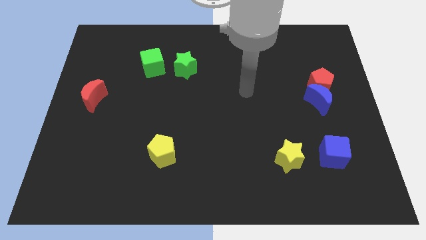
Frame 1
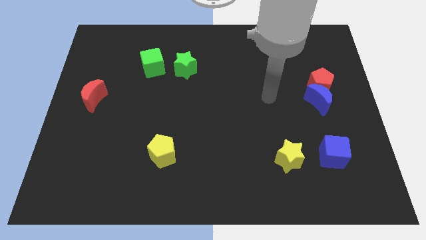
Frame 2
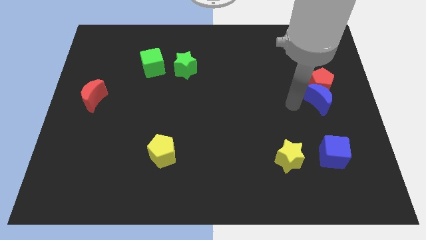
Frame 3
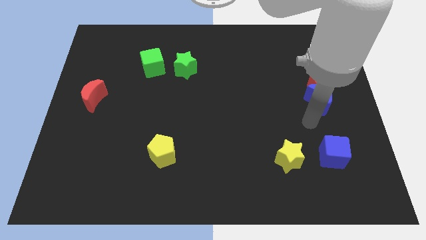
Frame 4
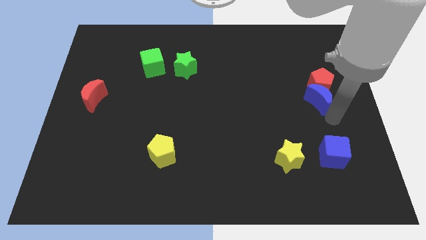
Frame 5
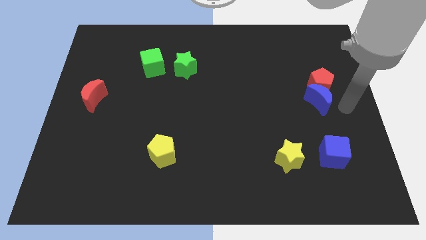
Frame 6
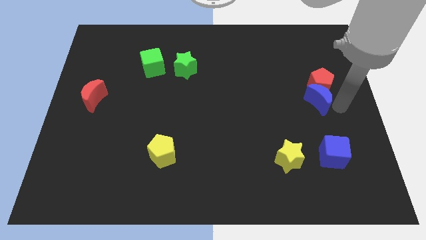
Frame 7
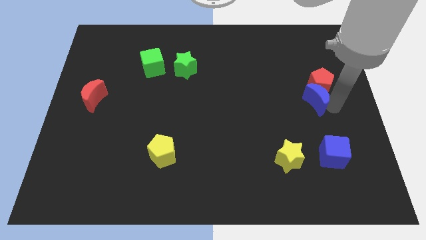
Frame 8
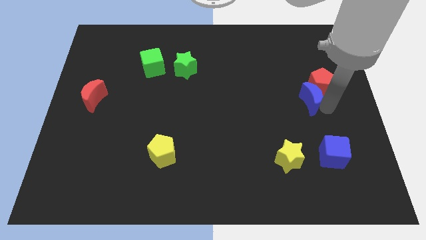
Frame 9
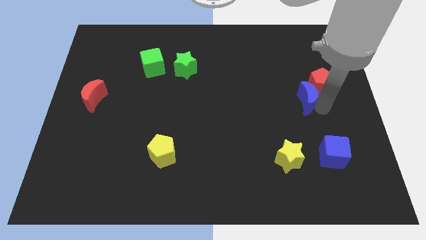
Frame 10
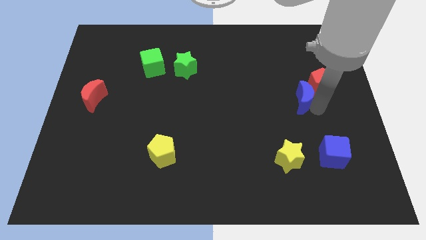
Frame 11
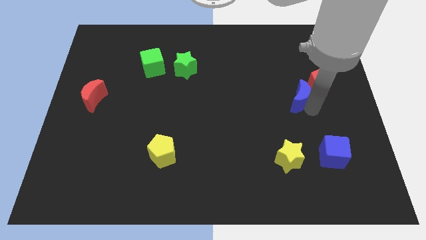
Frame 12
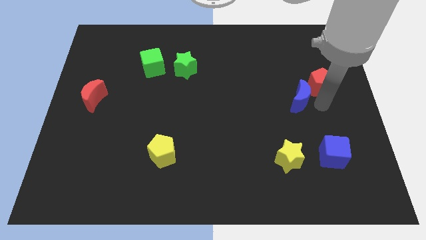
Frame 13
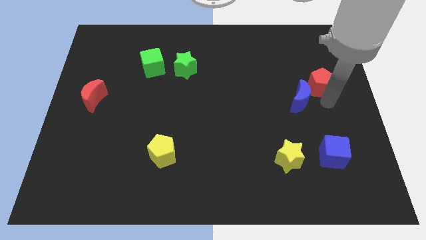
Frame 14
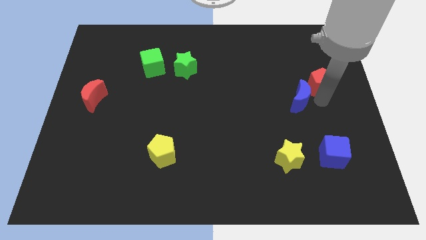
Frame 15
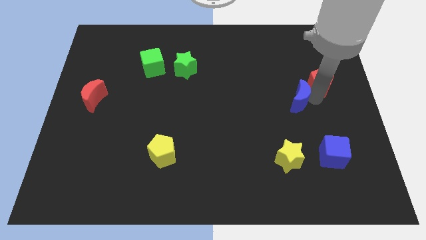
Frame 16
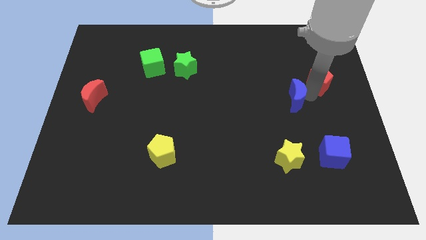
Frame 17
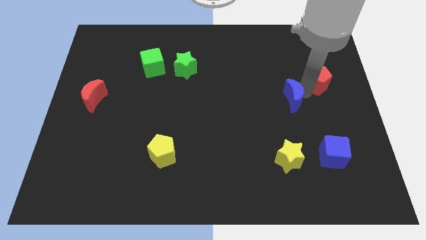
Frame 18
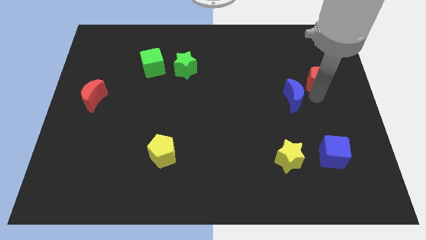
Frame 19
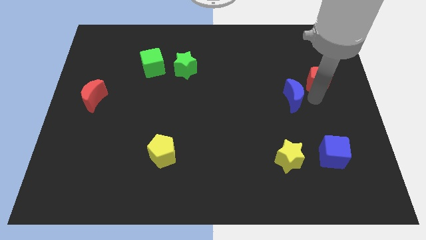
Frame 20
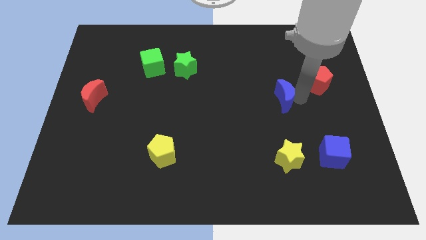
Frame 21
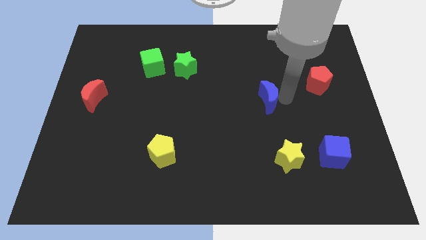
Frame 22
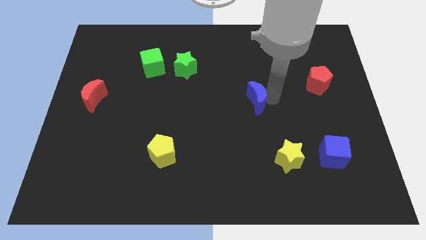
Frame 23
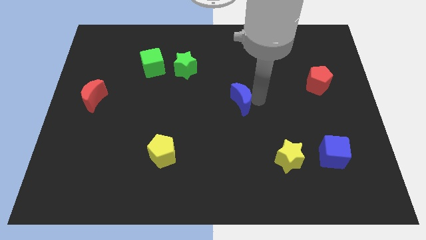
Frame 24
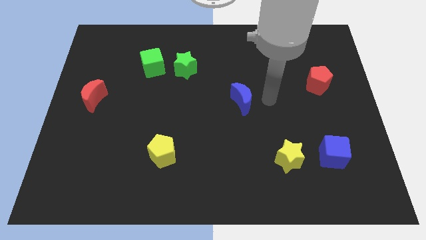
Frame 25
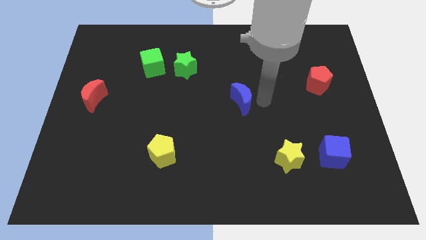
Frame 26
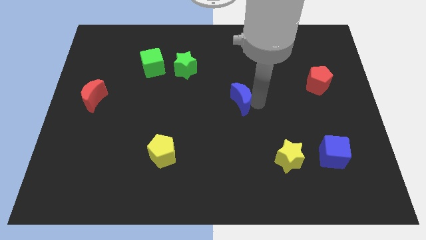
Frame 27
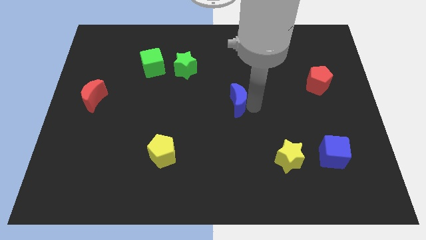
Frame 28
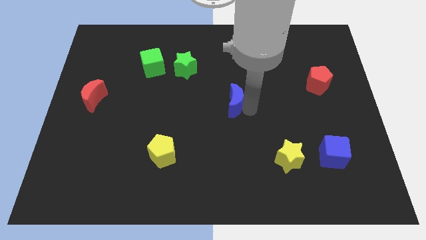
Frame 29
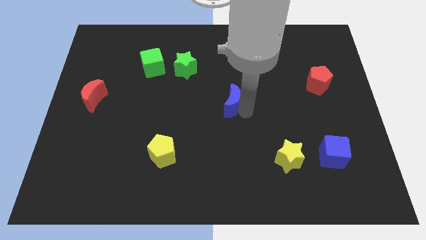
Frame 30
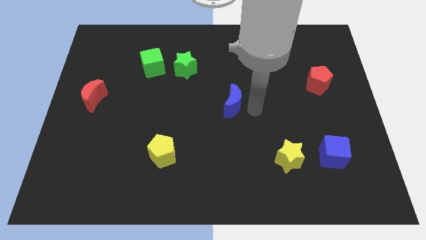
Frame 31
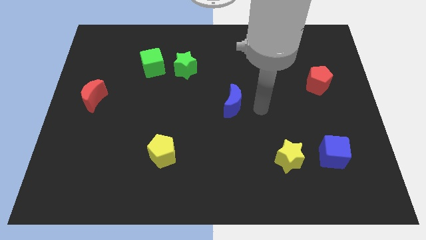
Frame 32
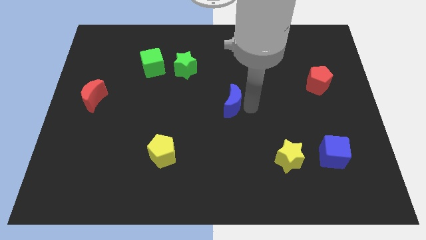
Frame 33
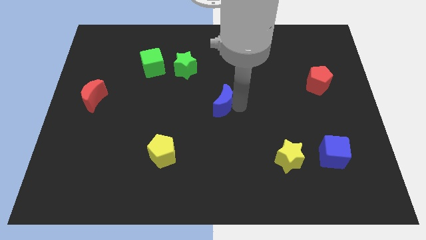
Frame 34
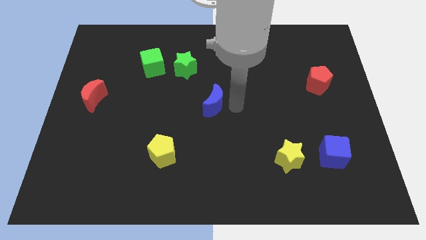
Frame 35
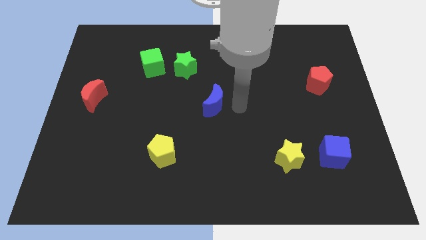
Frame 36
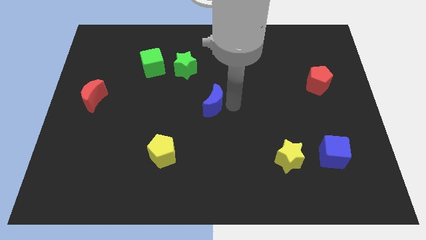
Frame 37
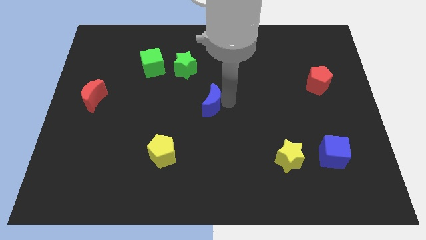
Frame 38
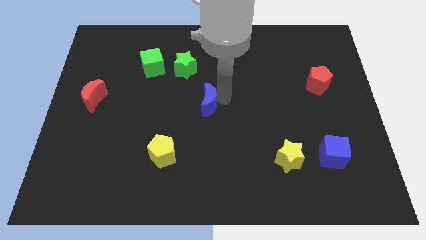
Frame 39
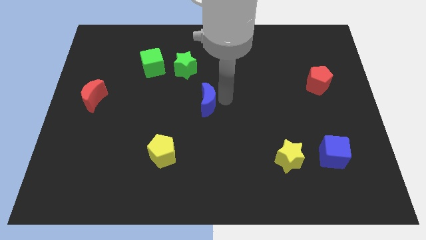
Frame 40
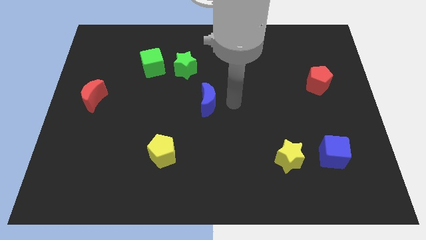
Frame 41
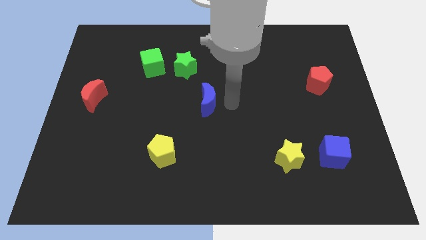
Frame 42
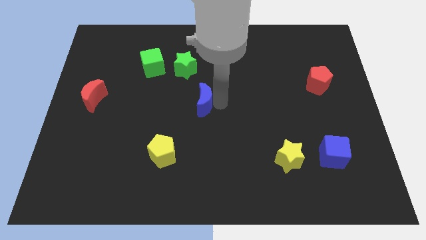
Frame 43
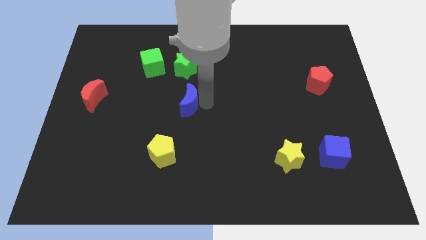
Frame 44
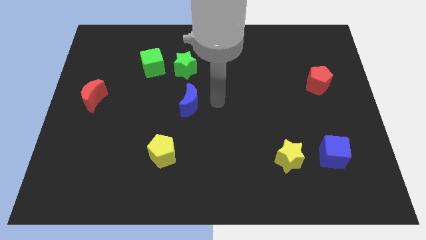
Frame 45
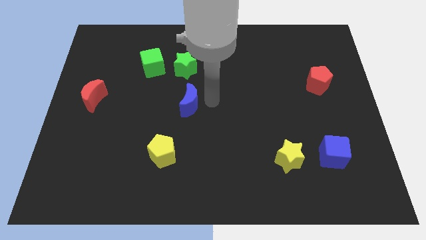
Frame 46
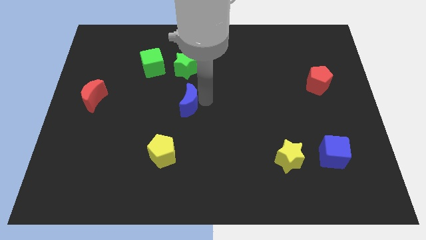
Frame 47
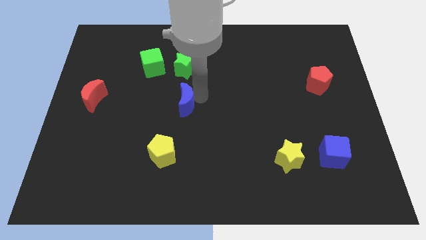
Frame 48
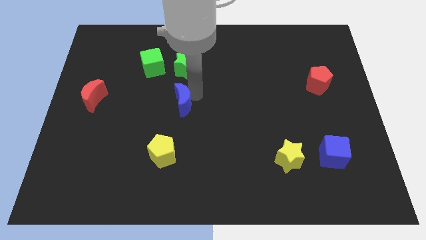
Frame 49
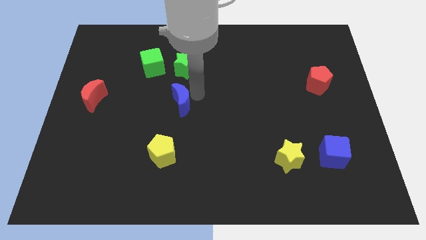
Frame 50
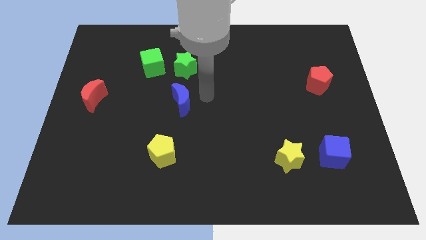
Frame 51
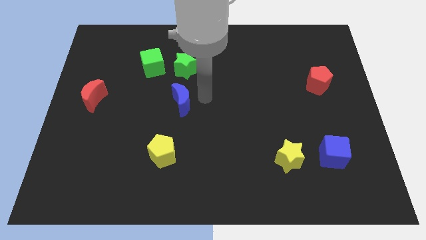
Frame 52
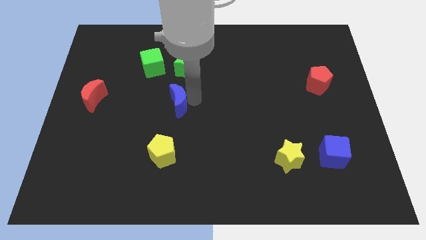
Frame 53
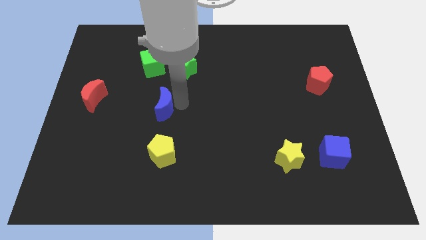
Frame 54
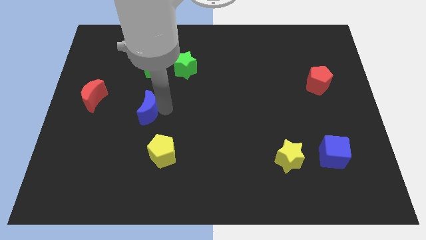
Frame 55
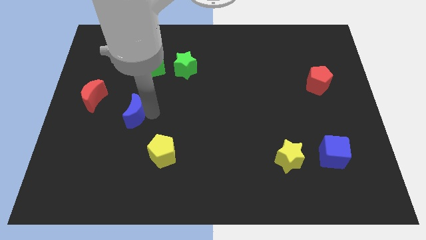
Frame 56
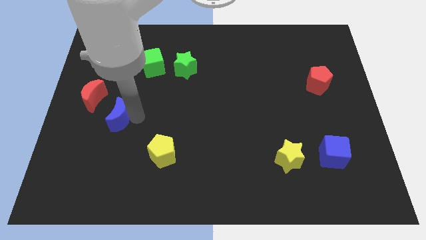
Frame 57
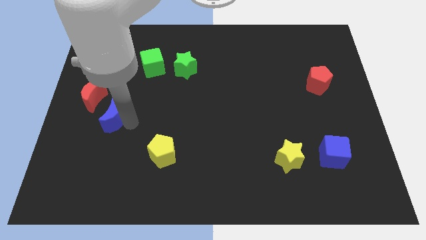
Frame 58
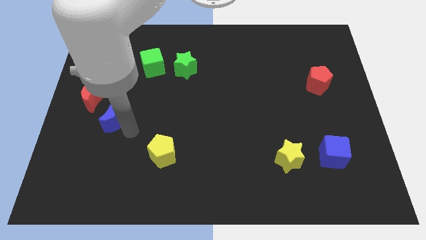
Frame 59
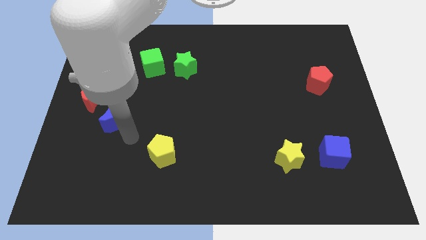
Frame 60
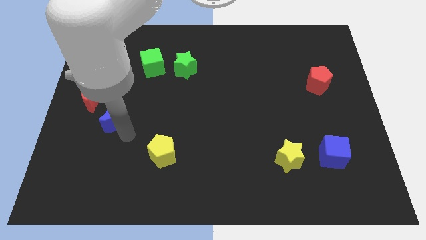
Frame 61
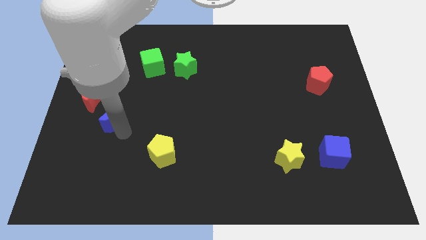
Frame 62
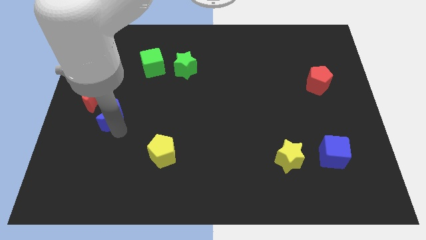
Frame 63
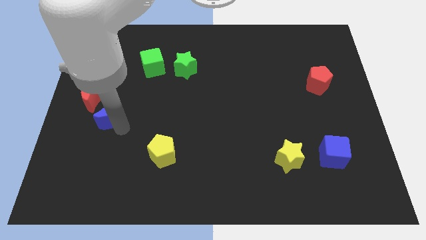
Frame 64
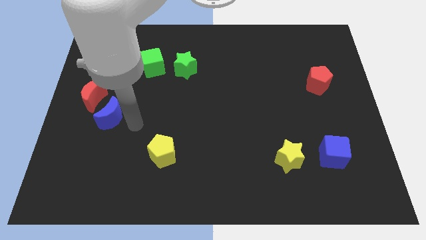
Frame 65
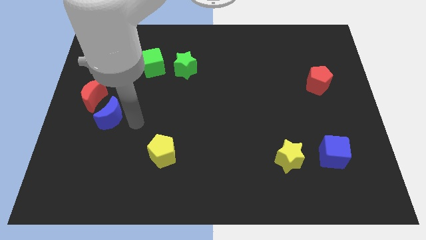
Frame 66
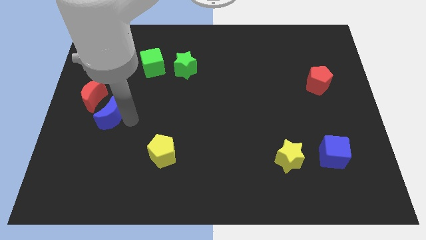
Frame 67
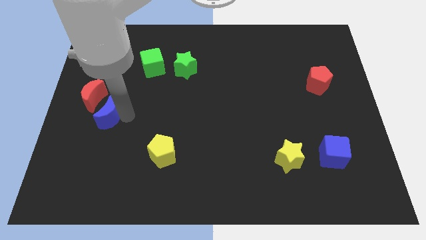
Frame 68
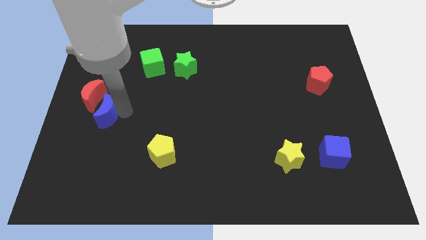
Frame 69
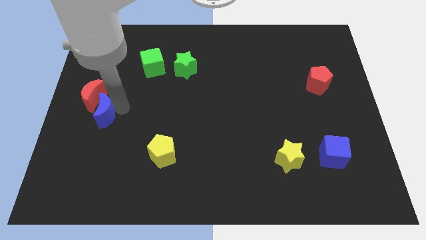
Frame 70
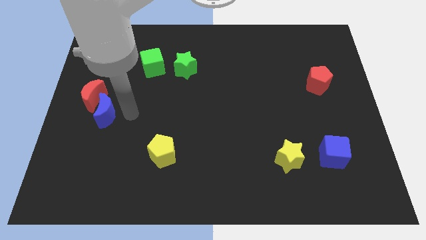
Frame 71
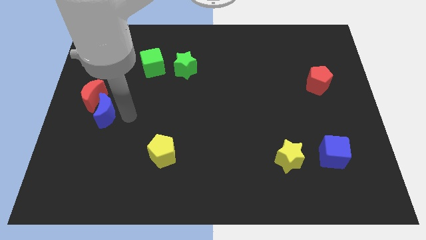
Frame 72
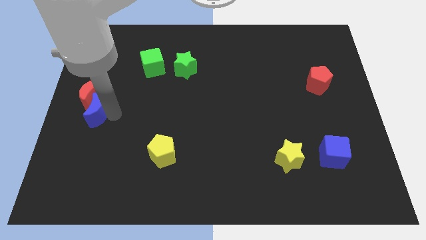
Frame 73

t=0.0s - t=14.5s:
move the blue moon to the left side of the board

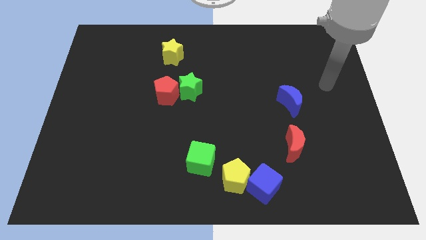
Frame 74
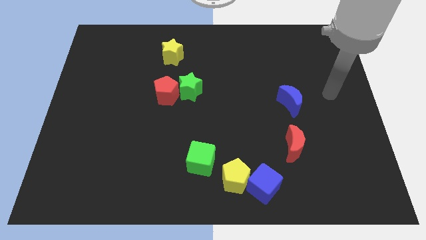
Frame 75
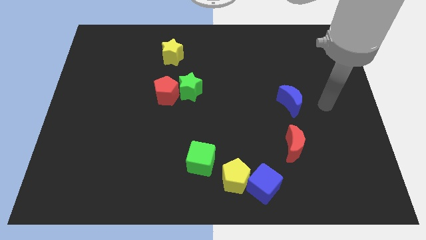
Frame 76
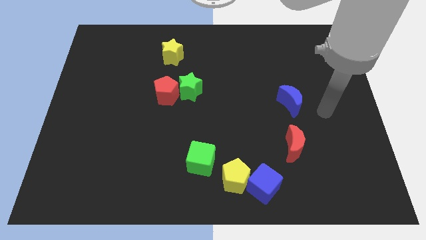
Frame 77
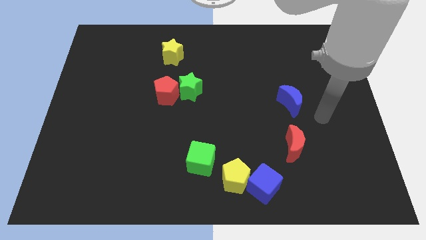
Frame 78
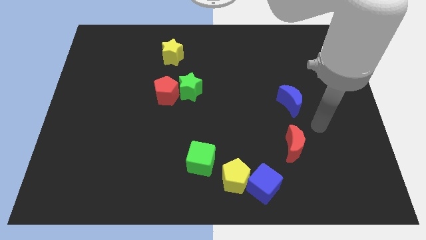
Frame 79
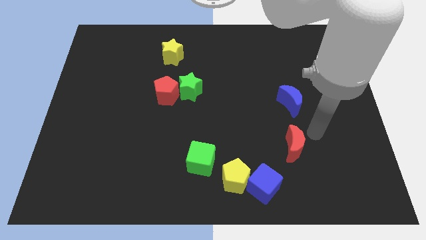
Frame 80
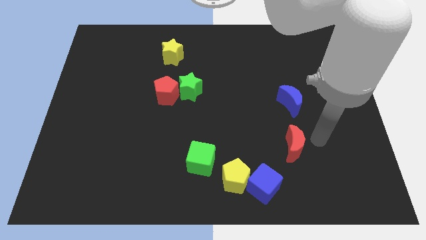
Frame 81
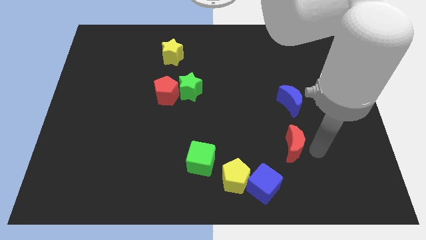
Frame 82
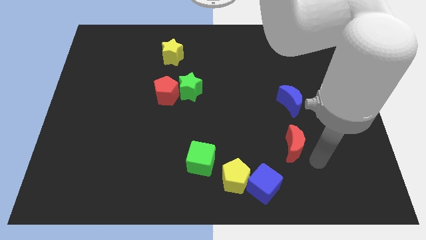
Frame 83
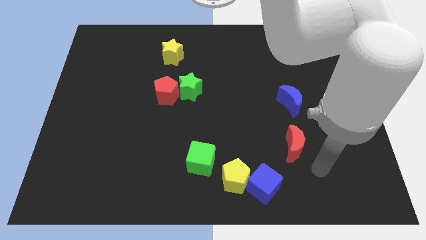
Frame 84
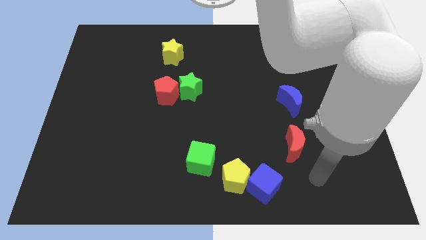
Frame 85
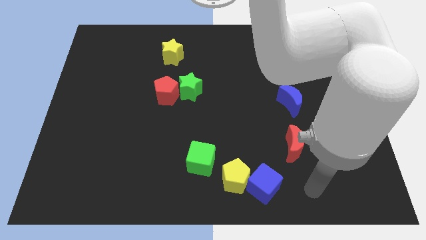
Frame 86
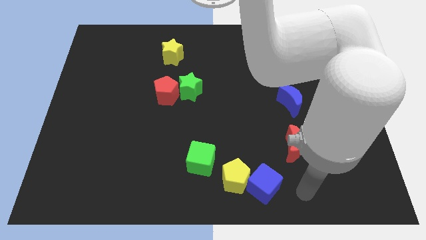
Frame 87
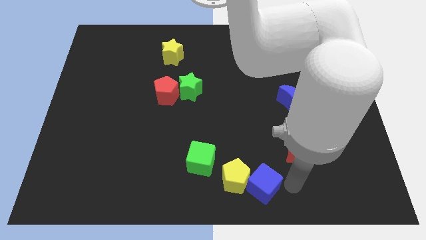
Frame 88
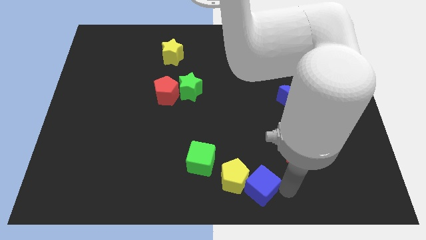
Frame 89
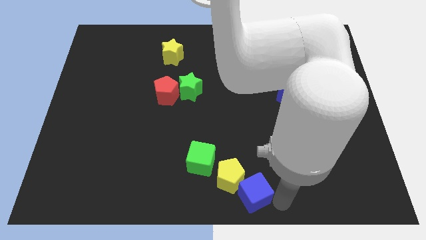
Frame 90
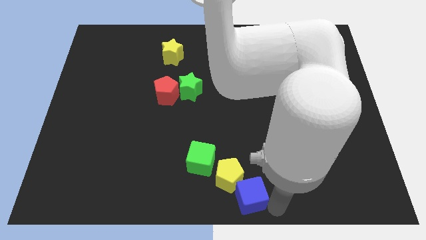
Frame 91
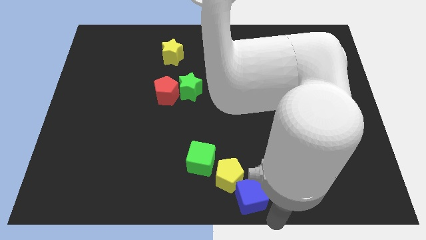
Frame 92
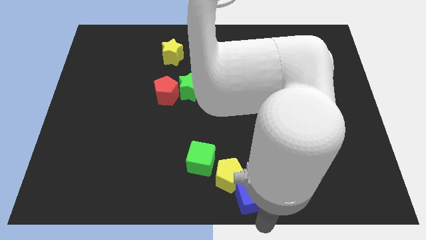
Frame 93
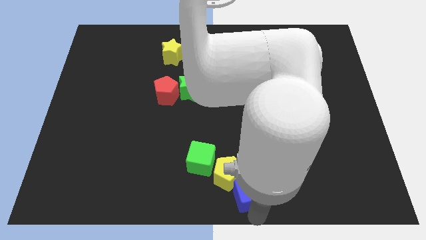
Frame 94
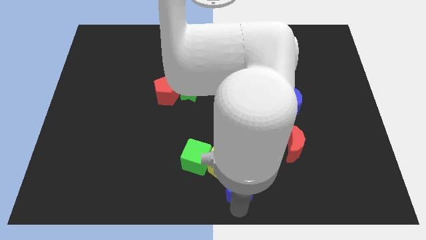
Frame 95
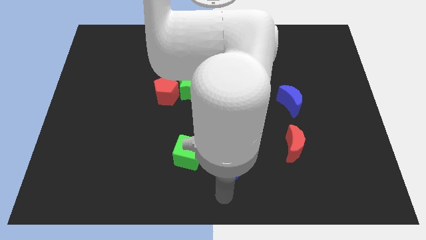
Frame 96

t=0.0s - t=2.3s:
slide the yellow pentagon to the center
